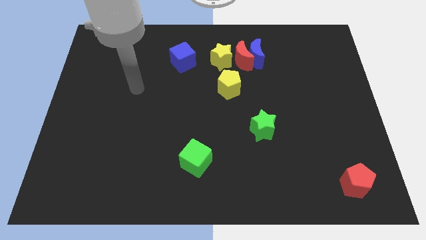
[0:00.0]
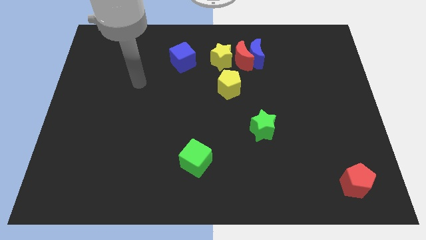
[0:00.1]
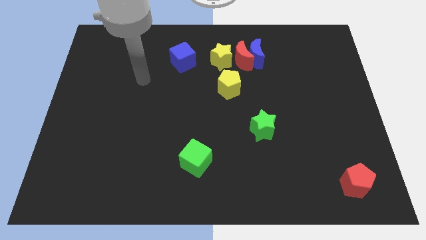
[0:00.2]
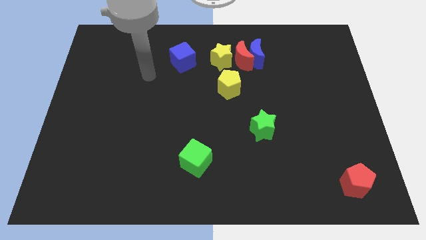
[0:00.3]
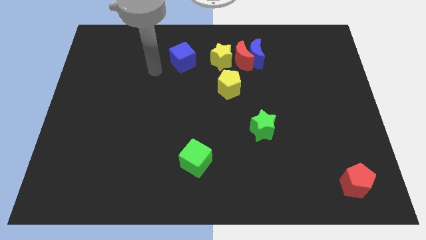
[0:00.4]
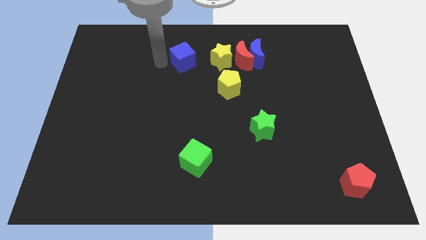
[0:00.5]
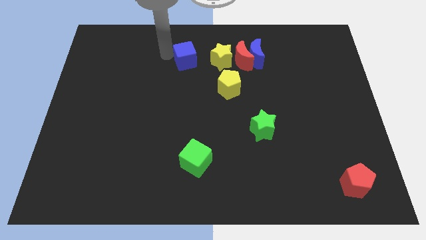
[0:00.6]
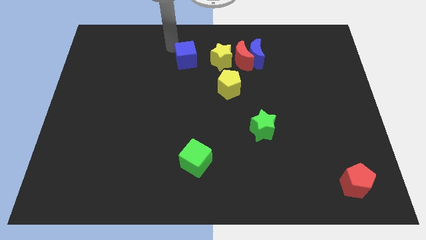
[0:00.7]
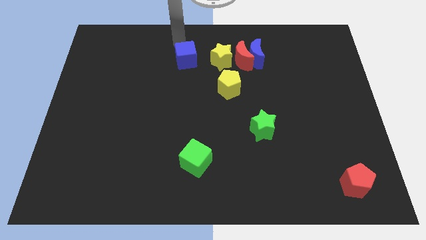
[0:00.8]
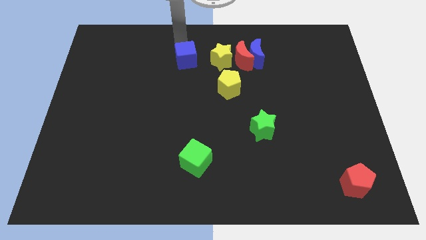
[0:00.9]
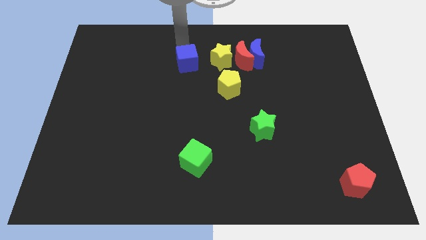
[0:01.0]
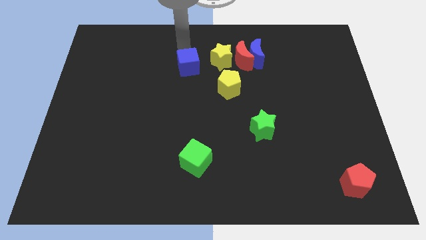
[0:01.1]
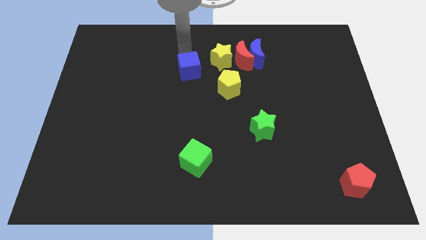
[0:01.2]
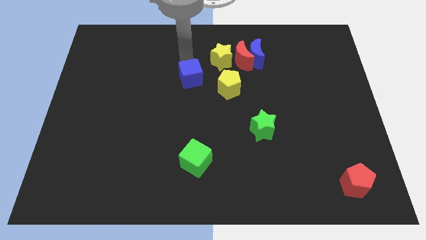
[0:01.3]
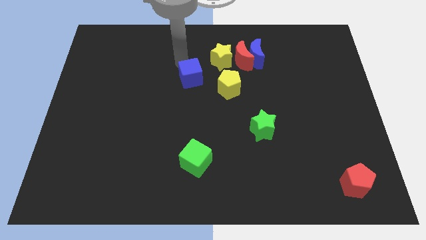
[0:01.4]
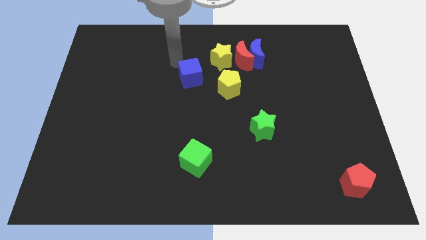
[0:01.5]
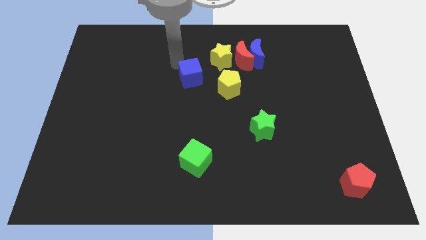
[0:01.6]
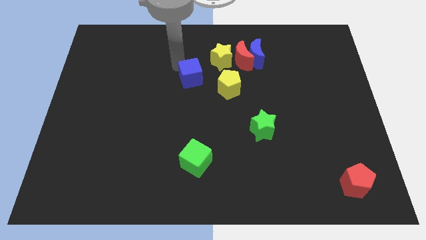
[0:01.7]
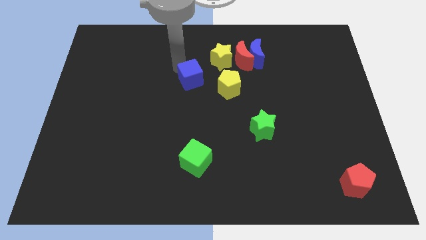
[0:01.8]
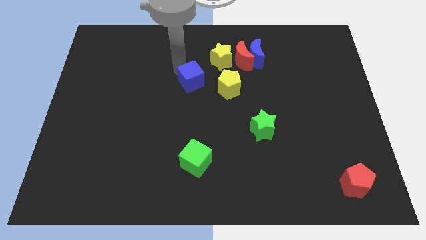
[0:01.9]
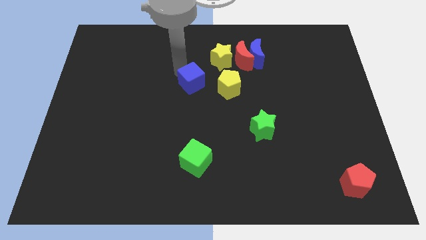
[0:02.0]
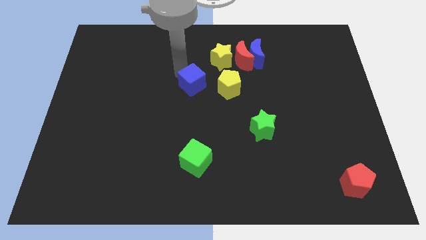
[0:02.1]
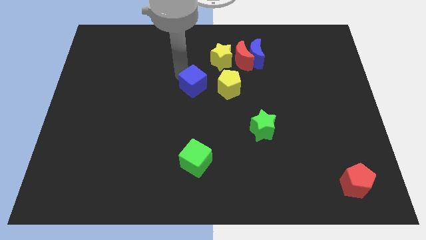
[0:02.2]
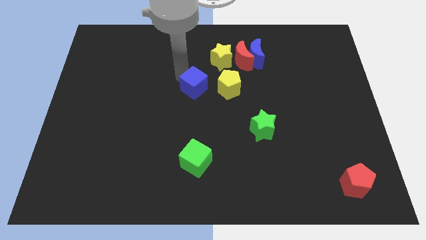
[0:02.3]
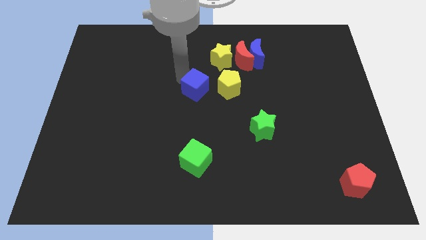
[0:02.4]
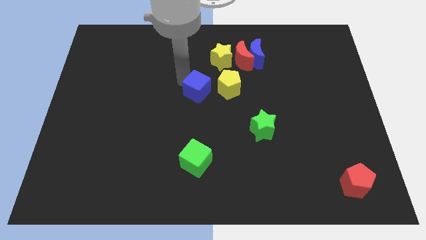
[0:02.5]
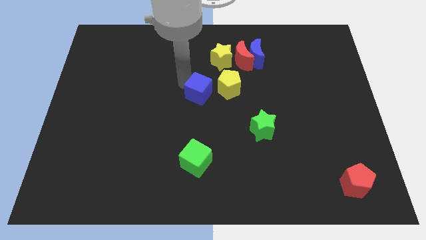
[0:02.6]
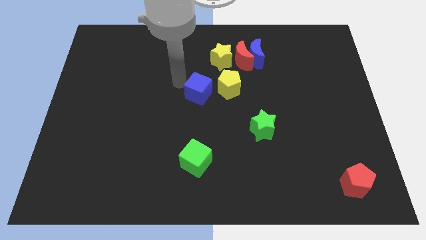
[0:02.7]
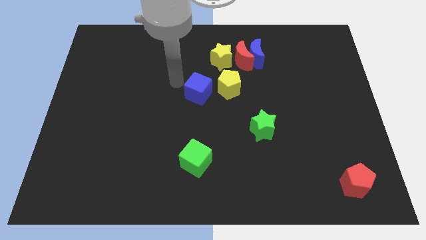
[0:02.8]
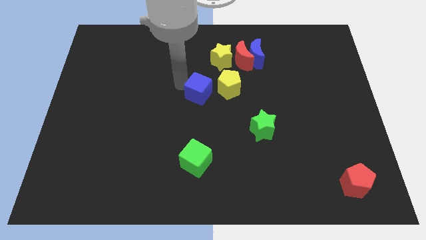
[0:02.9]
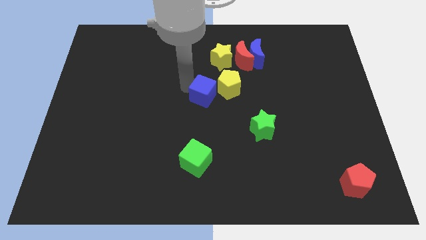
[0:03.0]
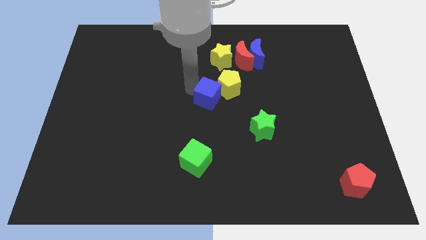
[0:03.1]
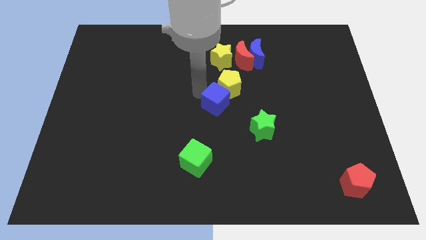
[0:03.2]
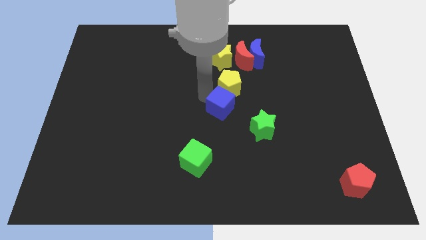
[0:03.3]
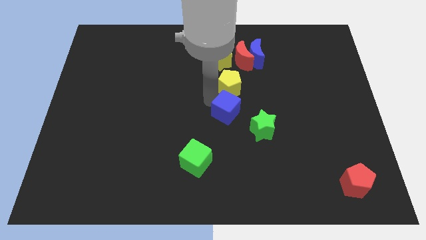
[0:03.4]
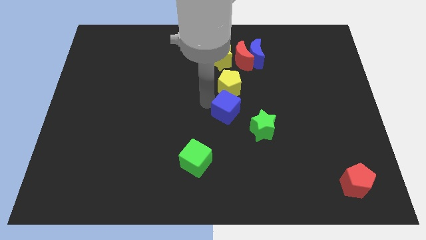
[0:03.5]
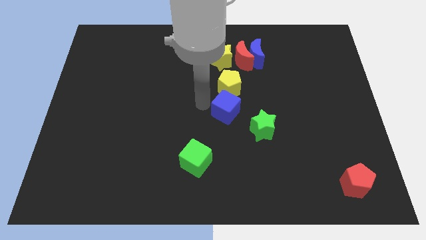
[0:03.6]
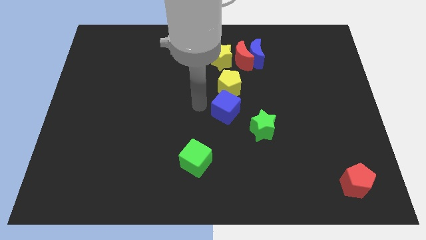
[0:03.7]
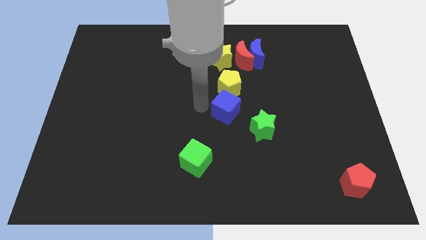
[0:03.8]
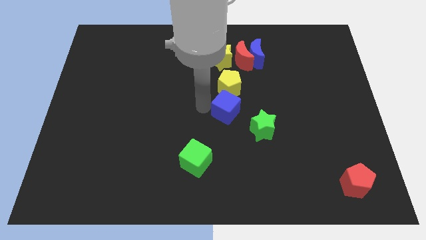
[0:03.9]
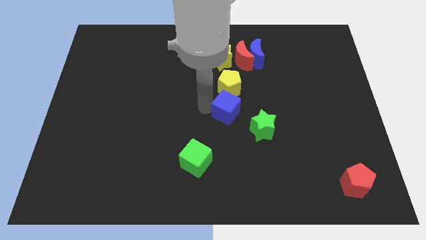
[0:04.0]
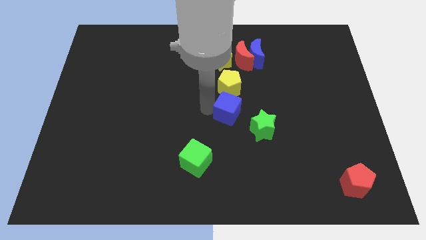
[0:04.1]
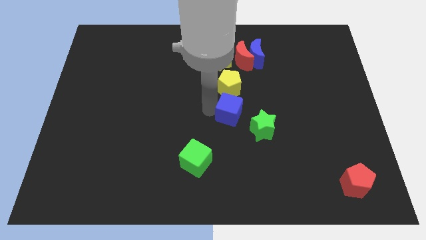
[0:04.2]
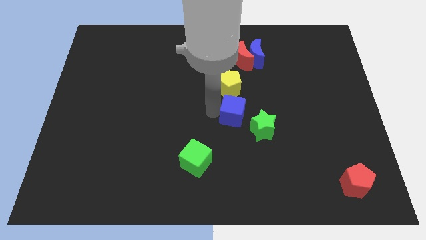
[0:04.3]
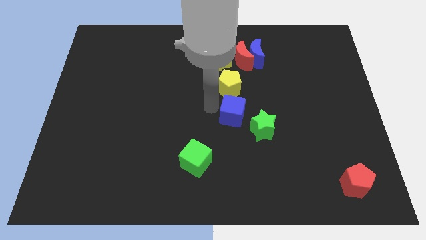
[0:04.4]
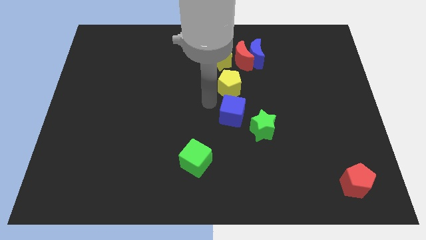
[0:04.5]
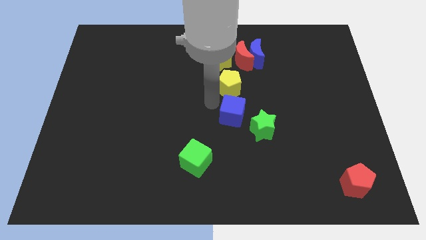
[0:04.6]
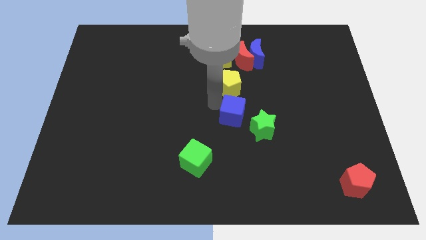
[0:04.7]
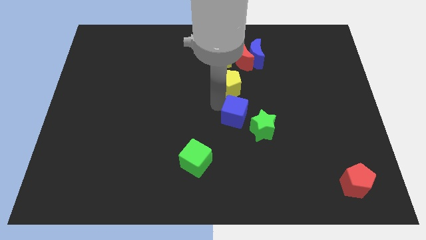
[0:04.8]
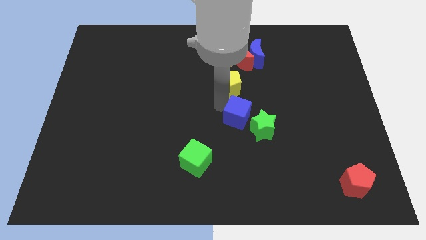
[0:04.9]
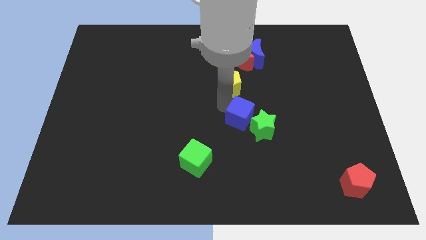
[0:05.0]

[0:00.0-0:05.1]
move the blue cube next to the green star

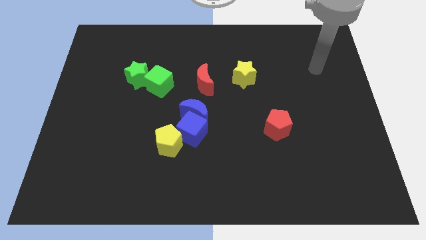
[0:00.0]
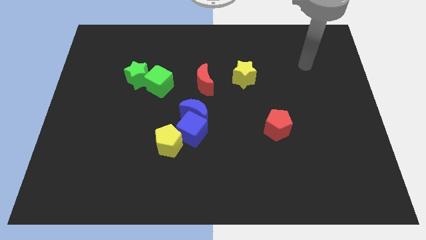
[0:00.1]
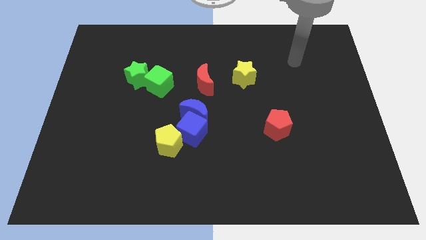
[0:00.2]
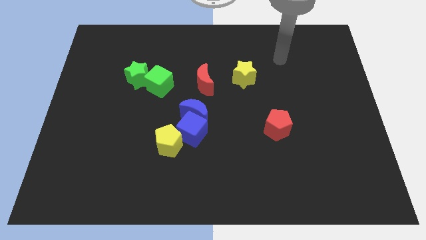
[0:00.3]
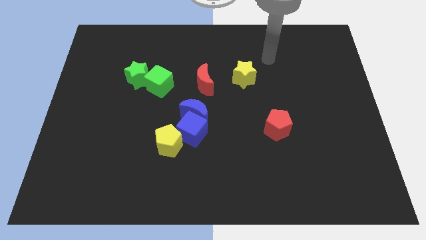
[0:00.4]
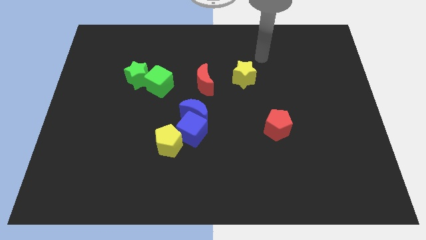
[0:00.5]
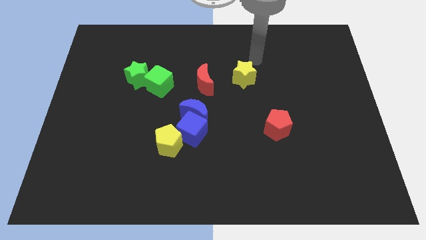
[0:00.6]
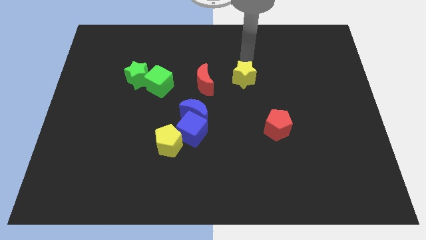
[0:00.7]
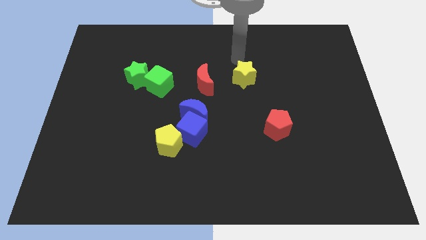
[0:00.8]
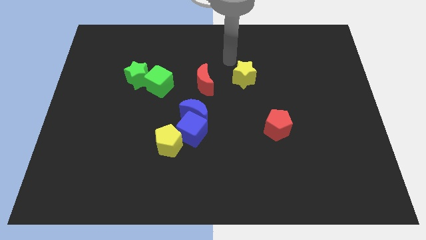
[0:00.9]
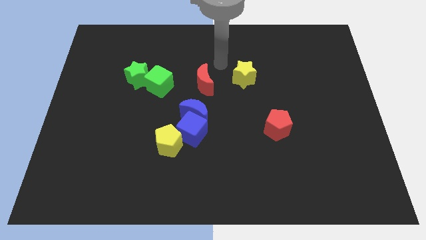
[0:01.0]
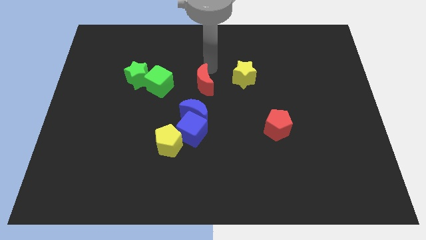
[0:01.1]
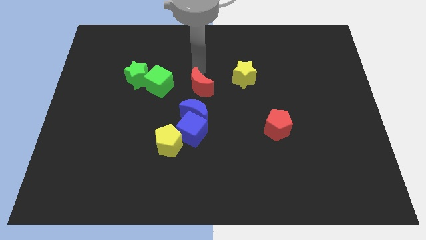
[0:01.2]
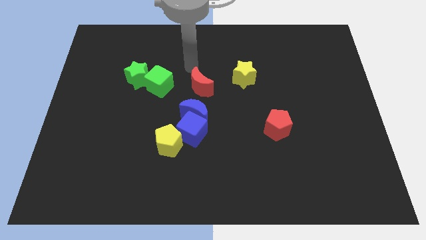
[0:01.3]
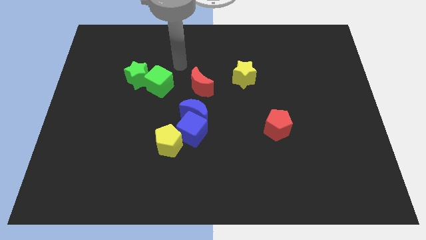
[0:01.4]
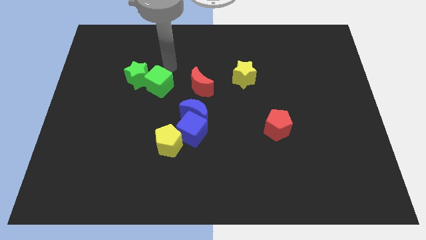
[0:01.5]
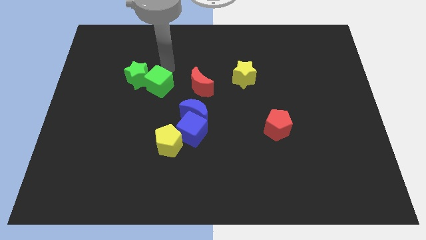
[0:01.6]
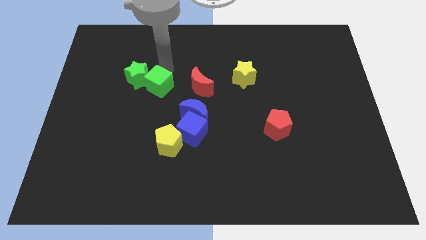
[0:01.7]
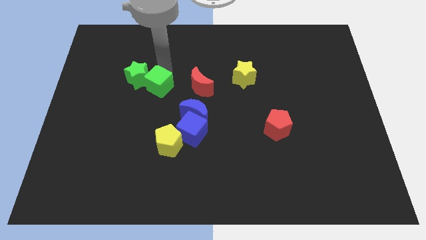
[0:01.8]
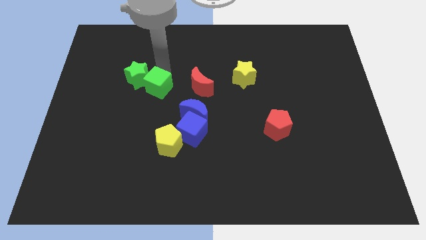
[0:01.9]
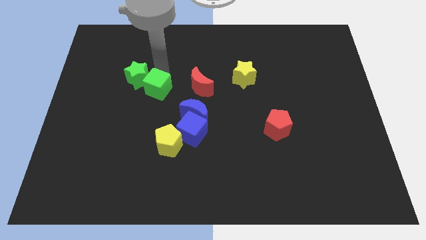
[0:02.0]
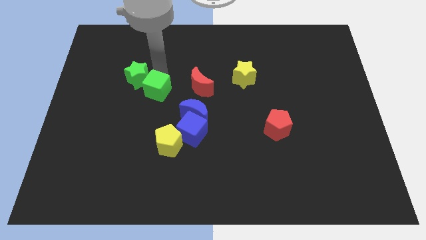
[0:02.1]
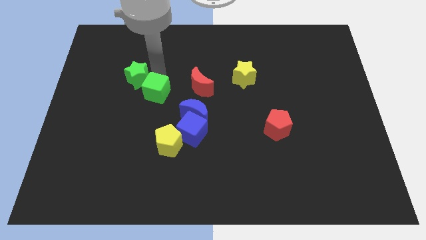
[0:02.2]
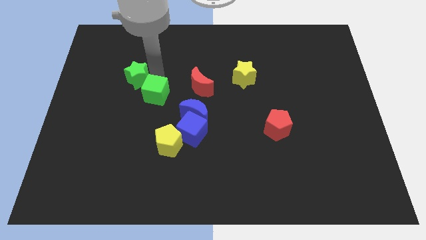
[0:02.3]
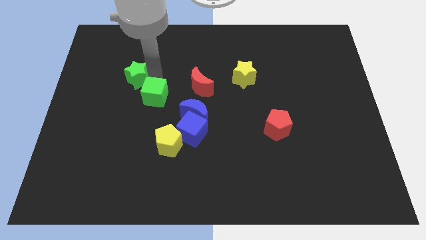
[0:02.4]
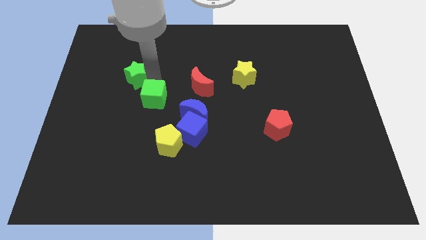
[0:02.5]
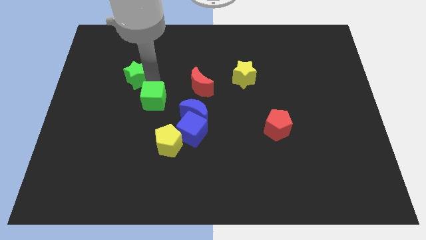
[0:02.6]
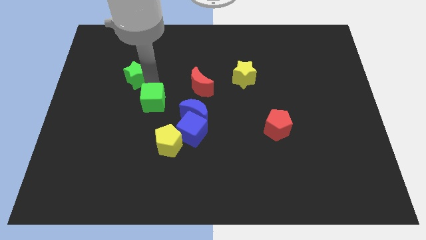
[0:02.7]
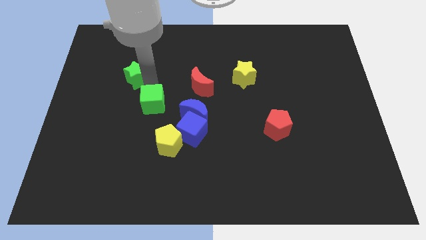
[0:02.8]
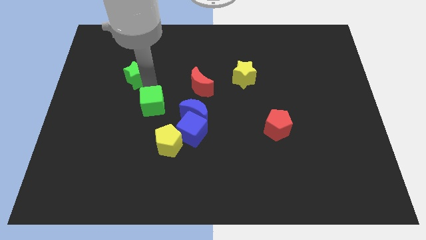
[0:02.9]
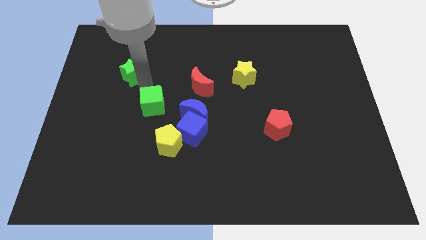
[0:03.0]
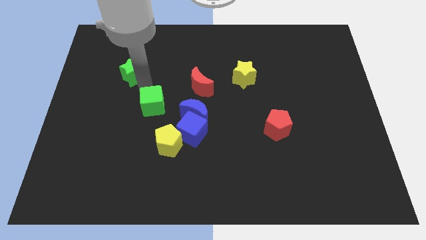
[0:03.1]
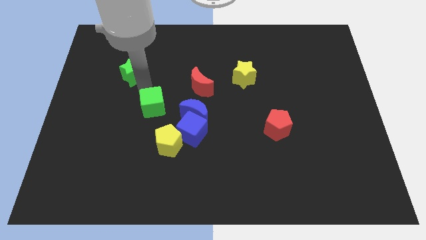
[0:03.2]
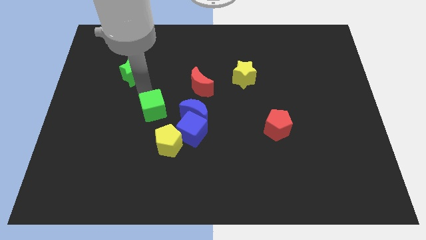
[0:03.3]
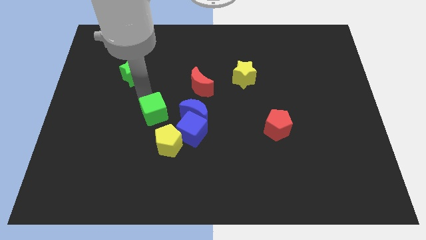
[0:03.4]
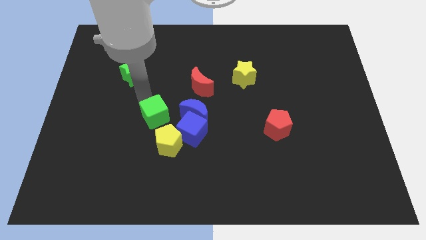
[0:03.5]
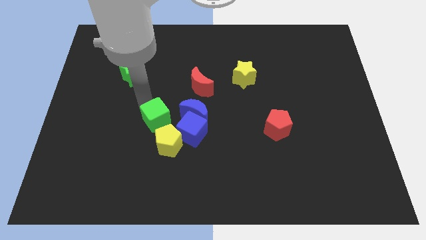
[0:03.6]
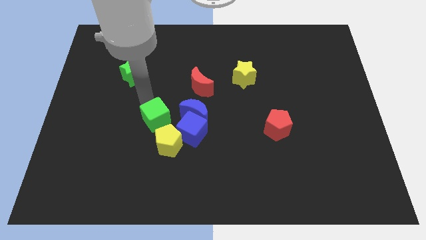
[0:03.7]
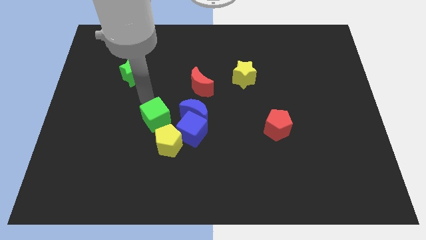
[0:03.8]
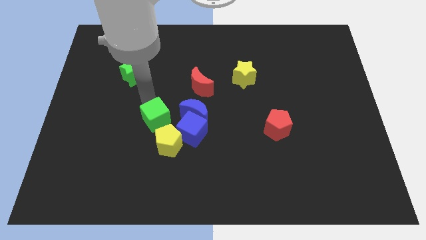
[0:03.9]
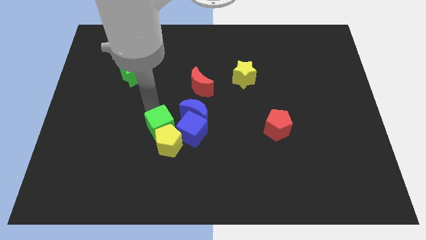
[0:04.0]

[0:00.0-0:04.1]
slide the green cube towards the yellow pentagon
